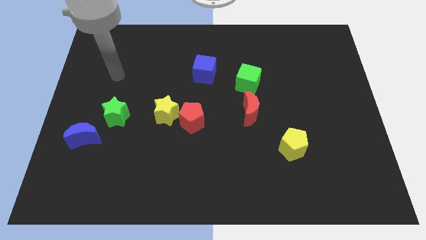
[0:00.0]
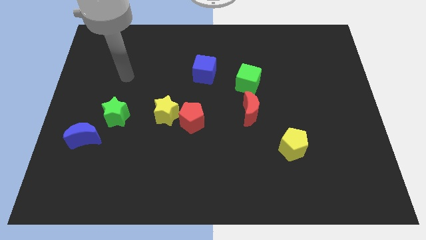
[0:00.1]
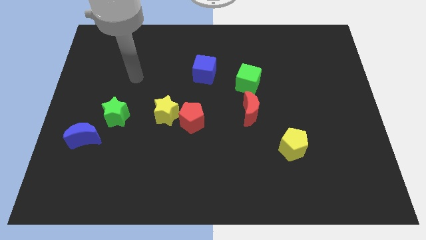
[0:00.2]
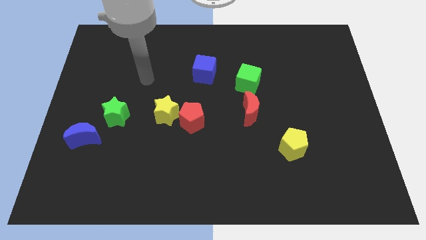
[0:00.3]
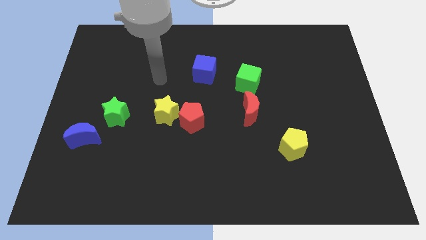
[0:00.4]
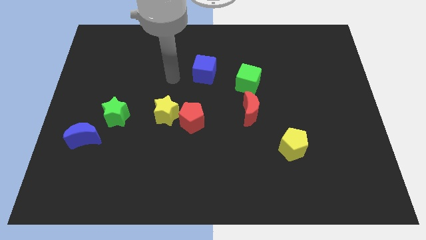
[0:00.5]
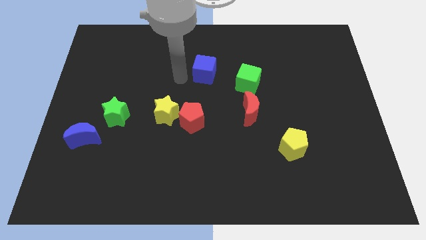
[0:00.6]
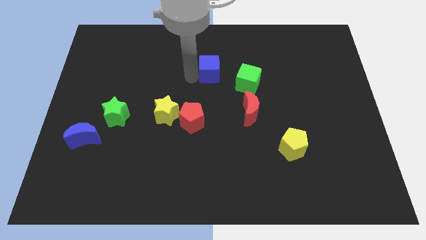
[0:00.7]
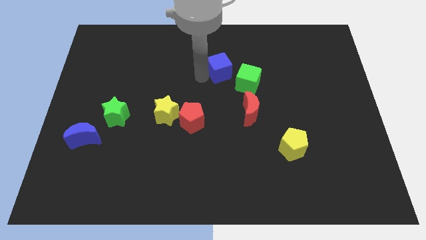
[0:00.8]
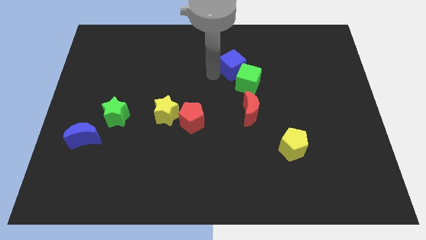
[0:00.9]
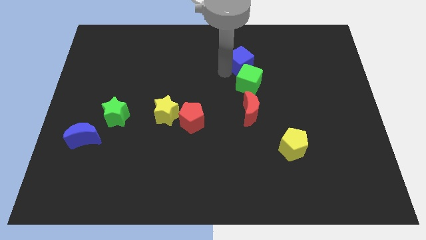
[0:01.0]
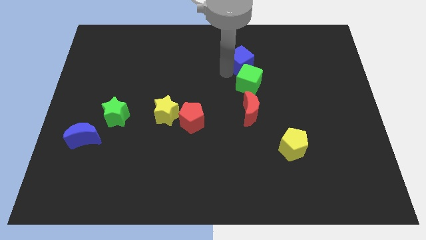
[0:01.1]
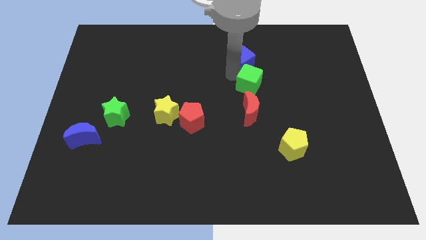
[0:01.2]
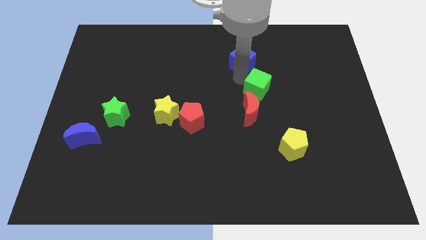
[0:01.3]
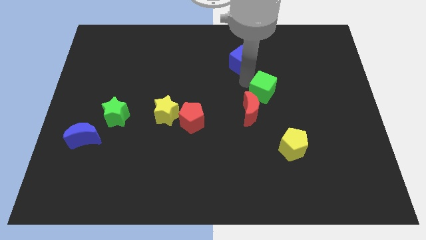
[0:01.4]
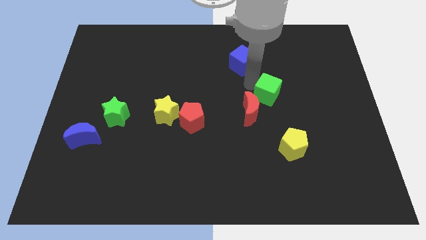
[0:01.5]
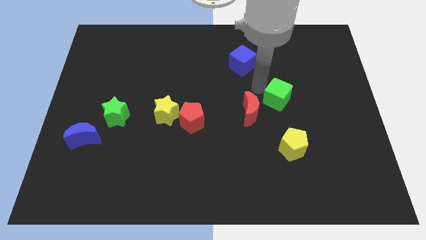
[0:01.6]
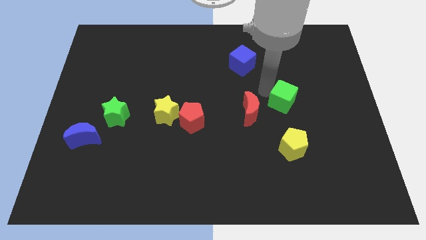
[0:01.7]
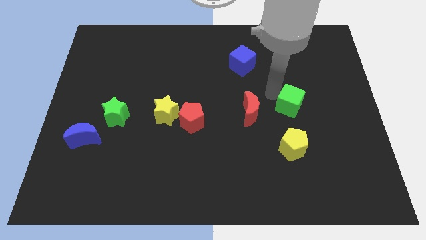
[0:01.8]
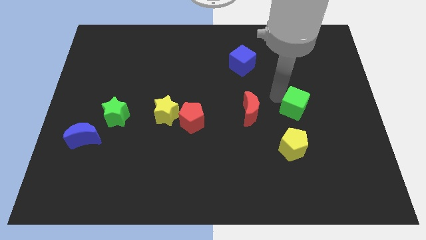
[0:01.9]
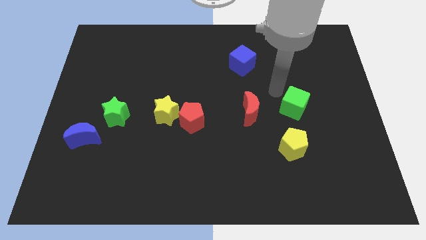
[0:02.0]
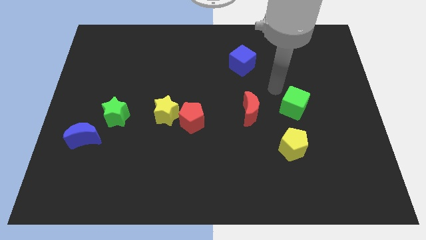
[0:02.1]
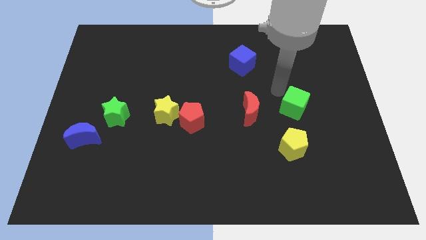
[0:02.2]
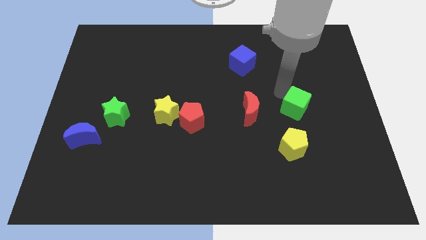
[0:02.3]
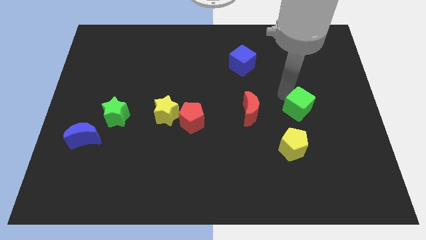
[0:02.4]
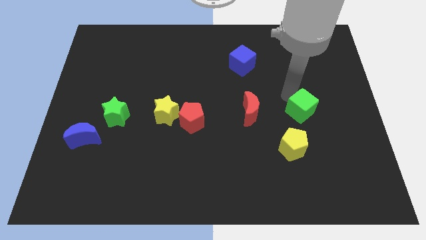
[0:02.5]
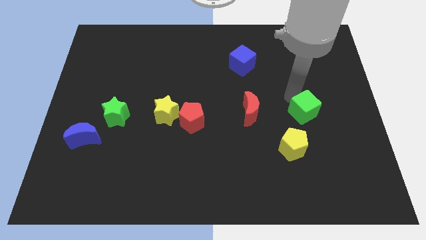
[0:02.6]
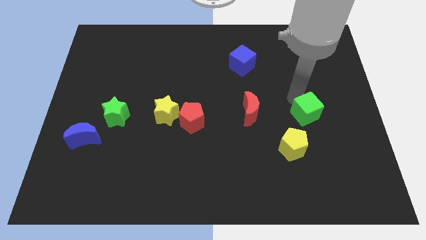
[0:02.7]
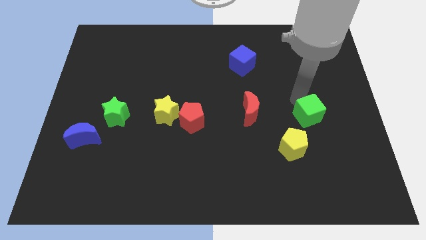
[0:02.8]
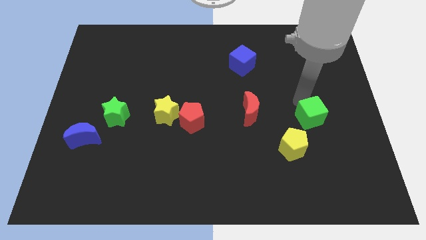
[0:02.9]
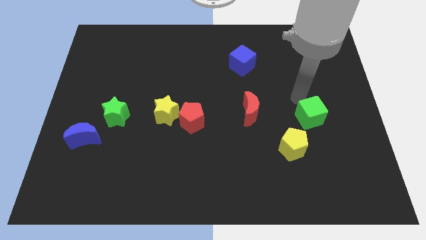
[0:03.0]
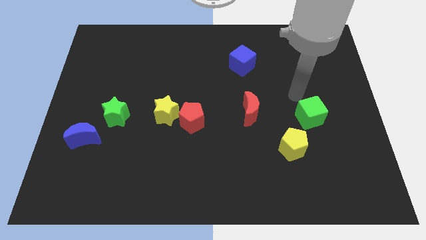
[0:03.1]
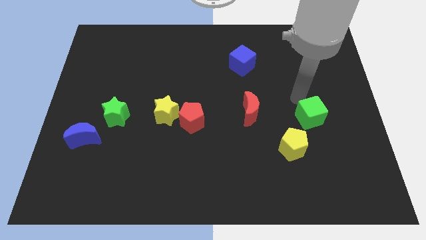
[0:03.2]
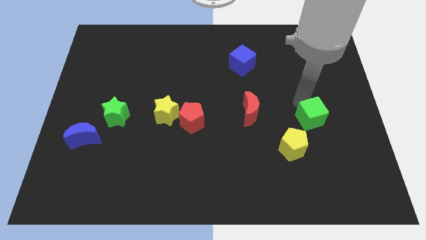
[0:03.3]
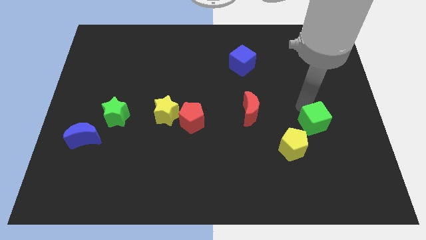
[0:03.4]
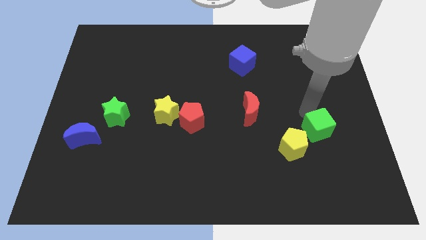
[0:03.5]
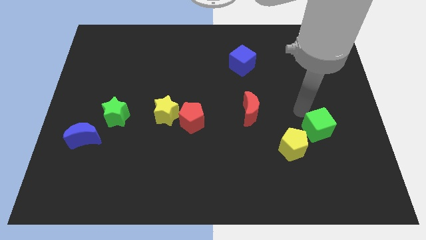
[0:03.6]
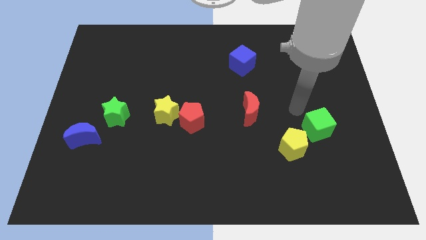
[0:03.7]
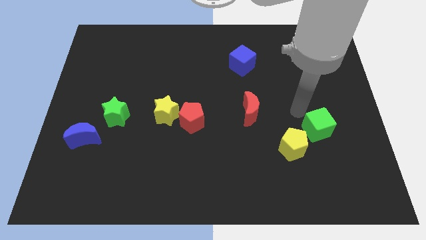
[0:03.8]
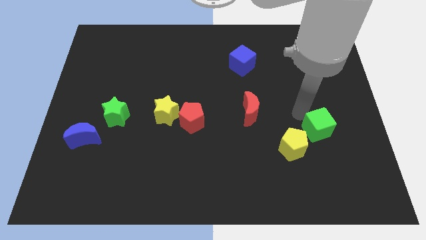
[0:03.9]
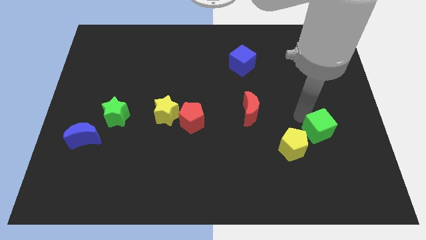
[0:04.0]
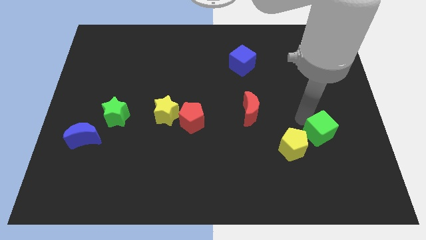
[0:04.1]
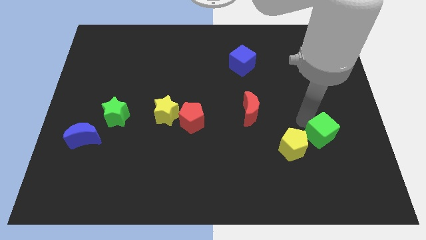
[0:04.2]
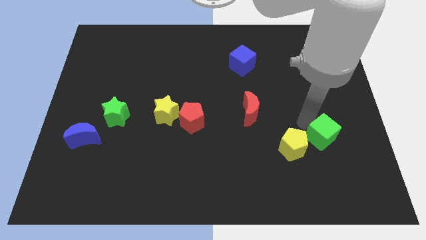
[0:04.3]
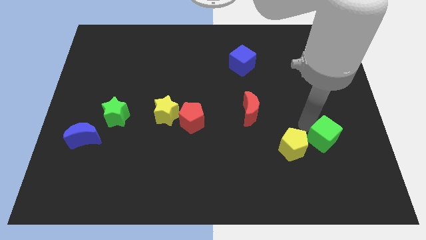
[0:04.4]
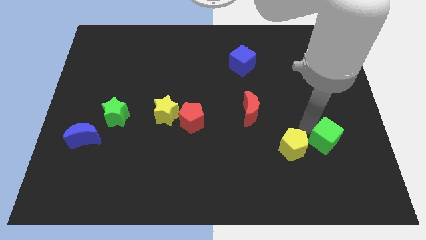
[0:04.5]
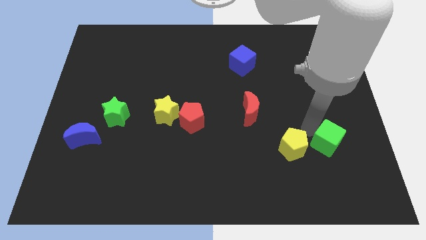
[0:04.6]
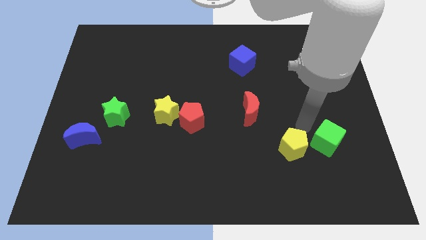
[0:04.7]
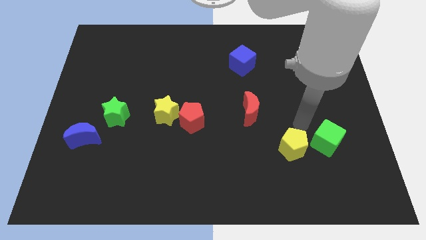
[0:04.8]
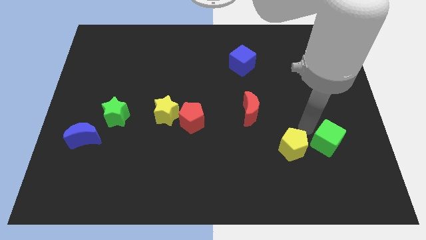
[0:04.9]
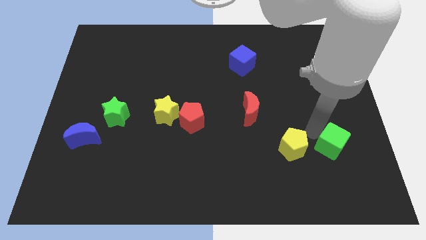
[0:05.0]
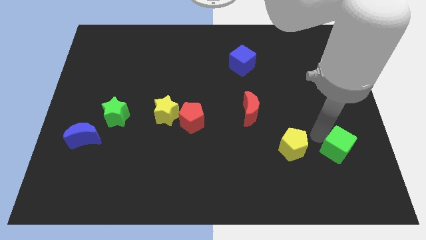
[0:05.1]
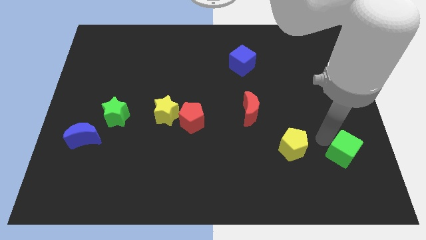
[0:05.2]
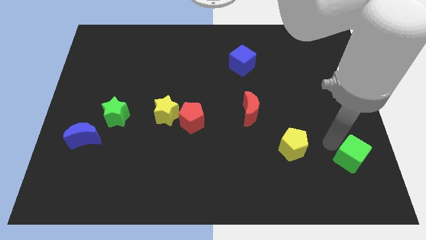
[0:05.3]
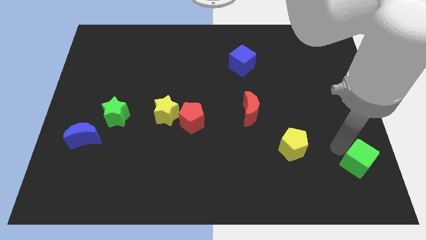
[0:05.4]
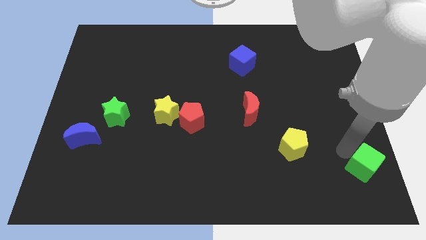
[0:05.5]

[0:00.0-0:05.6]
push the green cube to the bottom right of the board

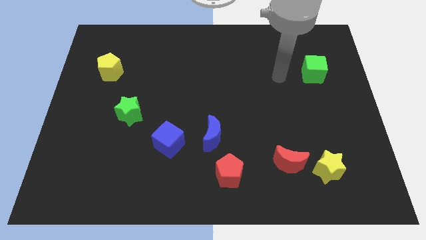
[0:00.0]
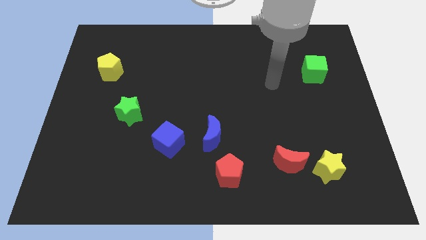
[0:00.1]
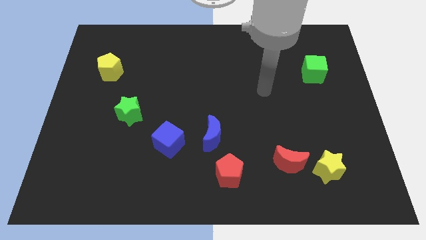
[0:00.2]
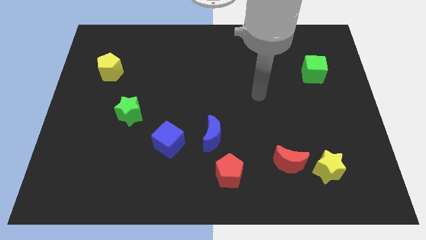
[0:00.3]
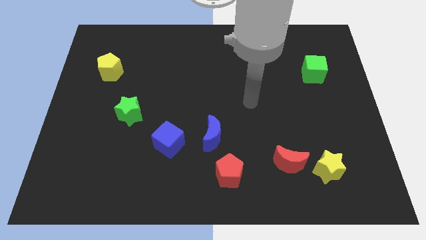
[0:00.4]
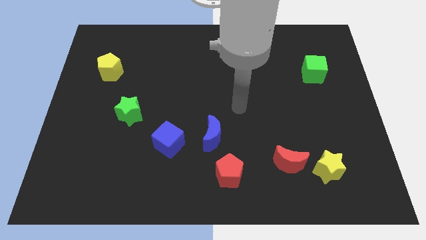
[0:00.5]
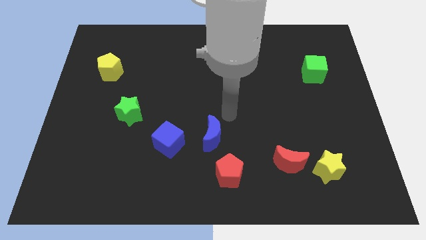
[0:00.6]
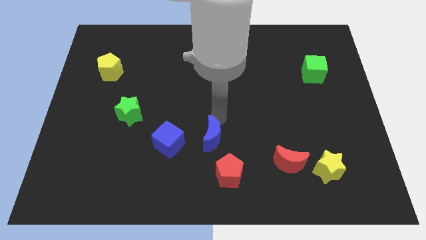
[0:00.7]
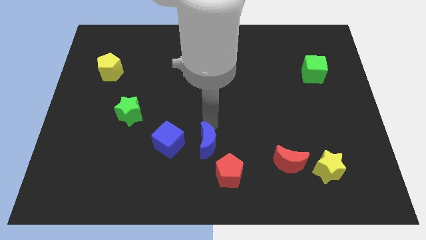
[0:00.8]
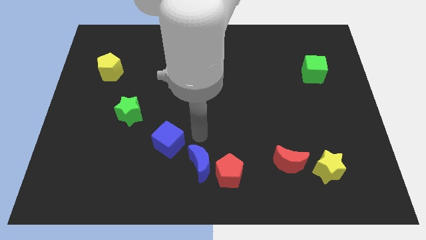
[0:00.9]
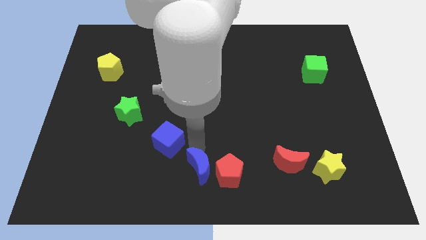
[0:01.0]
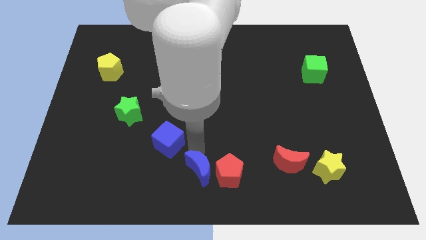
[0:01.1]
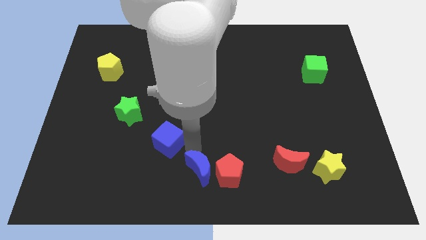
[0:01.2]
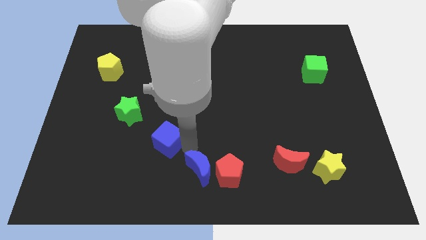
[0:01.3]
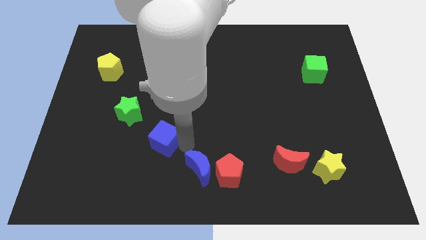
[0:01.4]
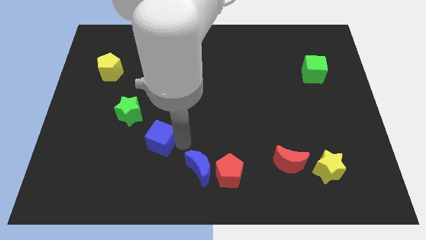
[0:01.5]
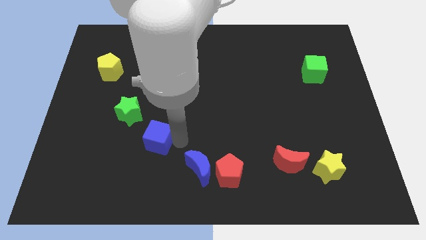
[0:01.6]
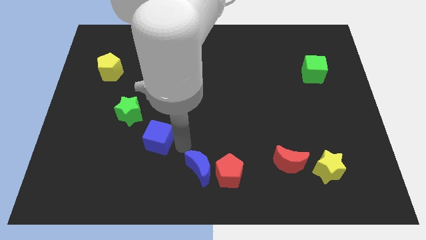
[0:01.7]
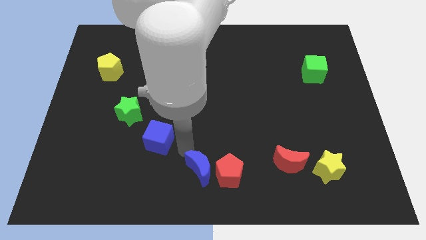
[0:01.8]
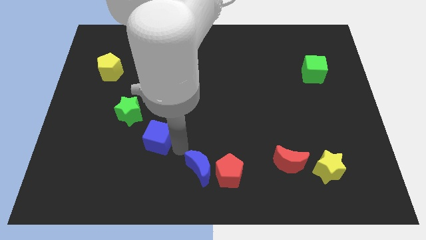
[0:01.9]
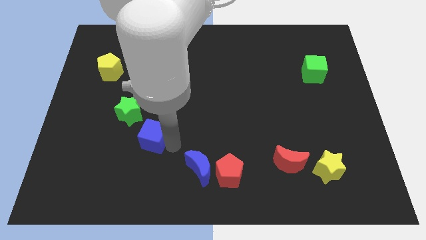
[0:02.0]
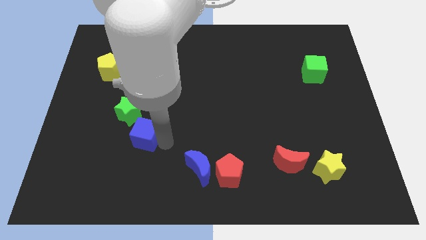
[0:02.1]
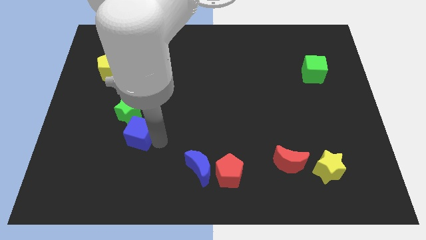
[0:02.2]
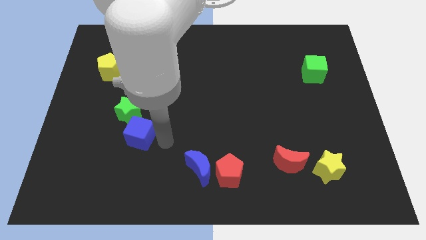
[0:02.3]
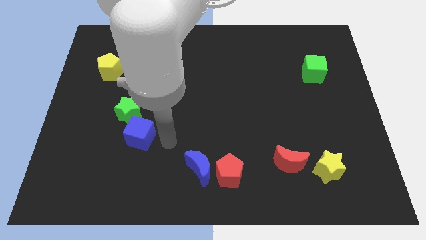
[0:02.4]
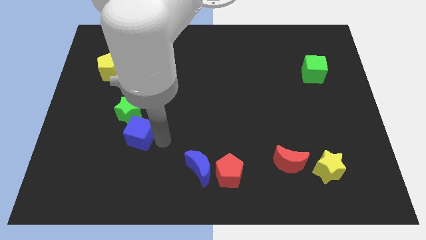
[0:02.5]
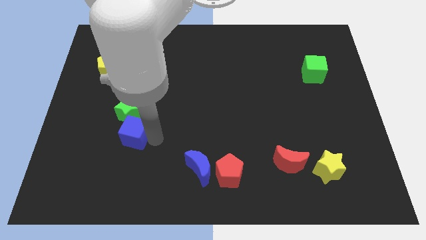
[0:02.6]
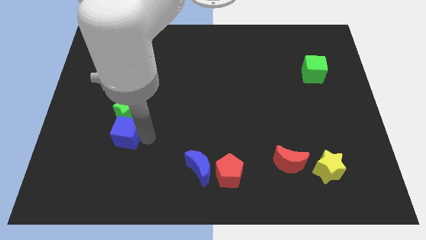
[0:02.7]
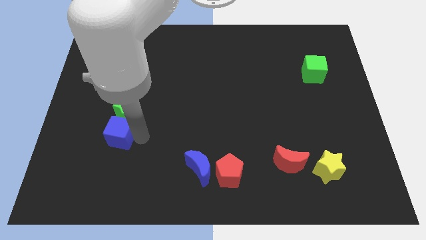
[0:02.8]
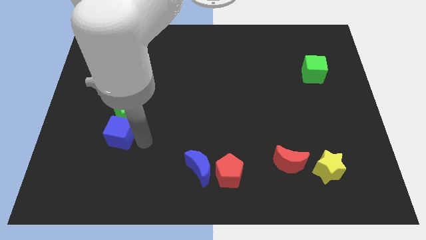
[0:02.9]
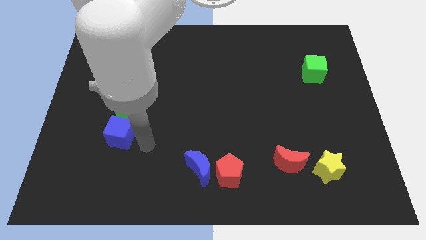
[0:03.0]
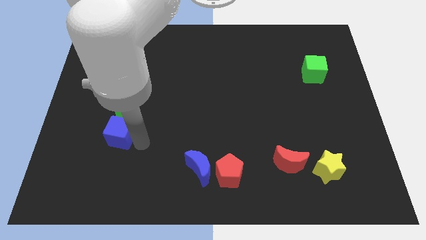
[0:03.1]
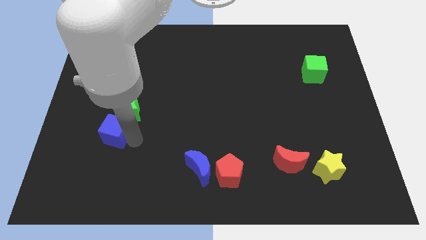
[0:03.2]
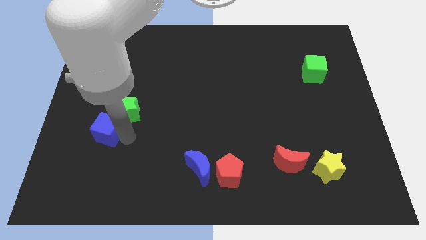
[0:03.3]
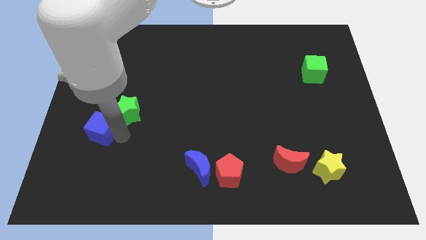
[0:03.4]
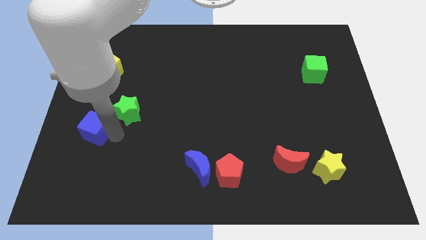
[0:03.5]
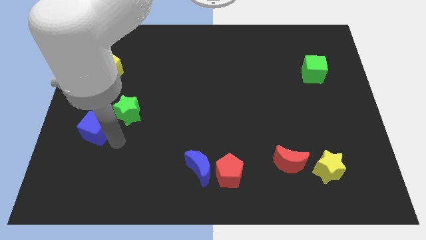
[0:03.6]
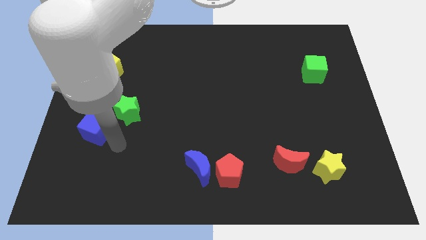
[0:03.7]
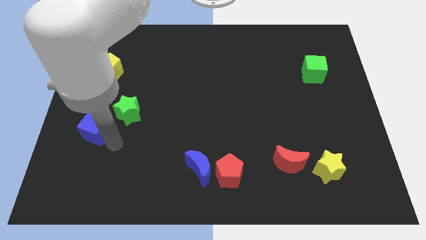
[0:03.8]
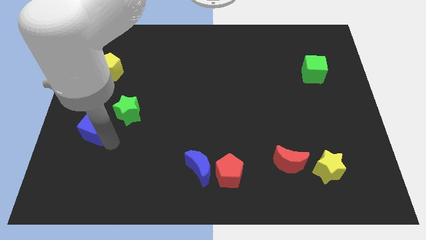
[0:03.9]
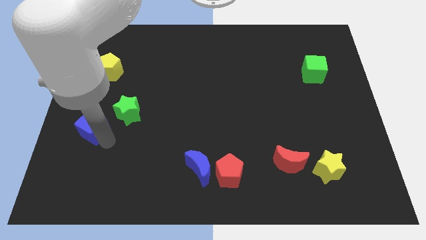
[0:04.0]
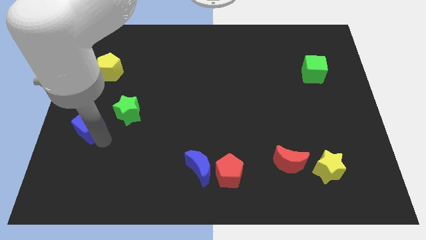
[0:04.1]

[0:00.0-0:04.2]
push the blue cube to the left side
